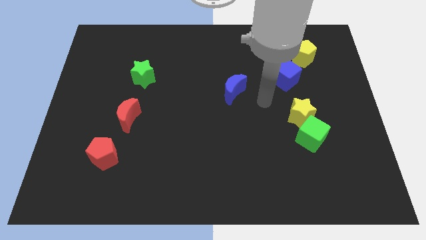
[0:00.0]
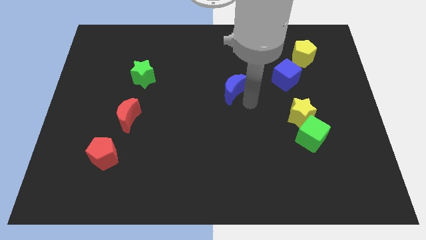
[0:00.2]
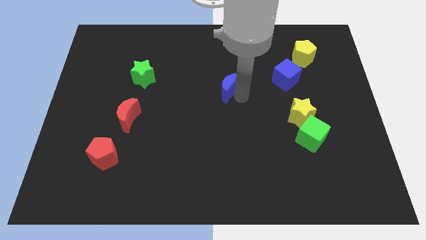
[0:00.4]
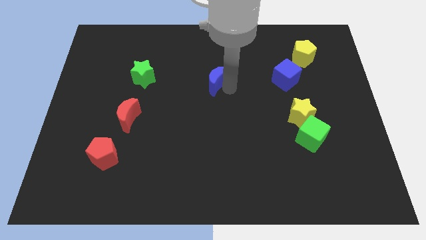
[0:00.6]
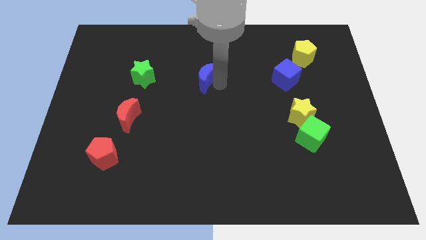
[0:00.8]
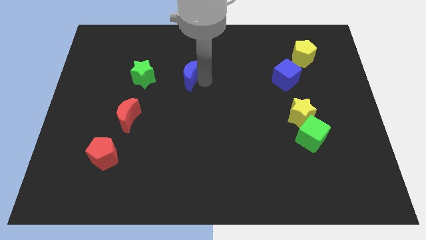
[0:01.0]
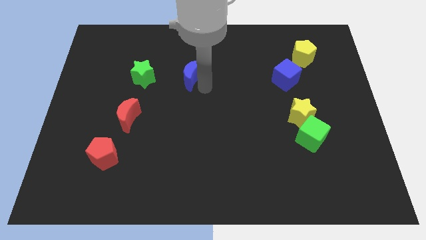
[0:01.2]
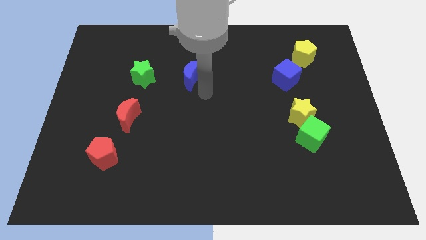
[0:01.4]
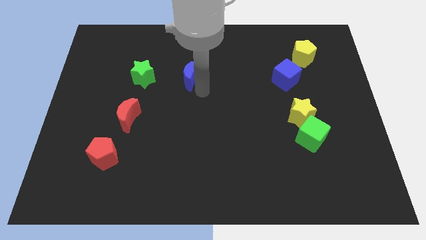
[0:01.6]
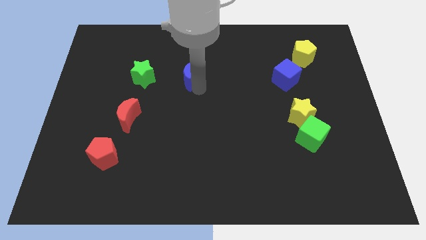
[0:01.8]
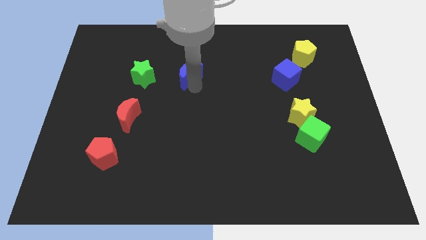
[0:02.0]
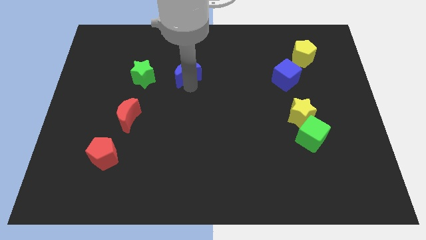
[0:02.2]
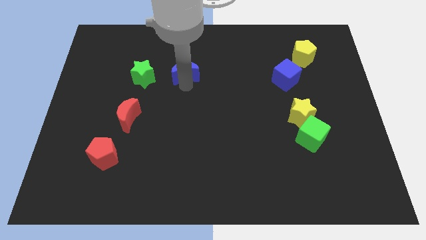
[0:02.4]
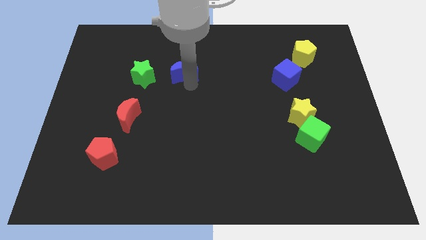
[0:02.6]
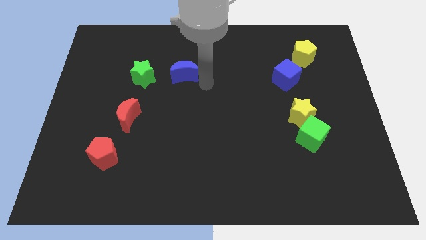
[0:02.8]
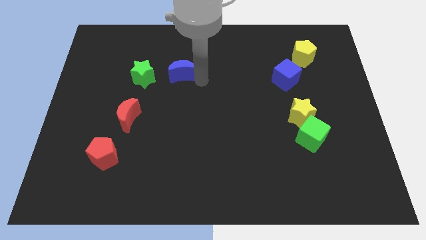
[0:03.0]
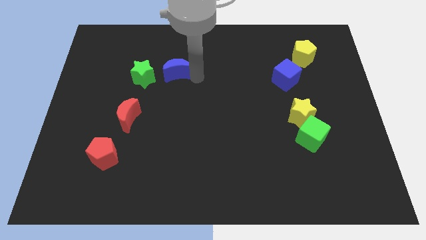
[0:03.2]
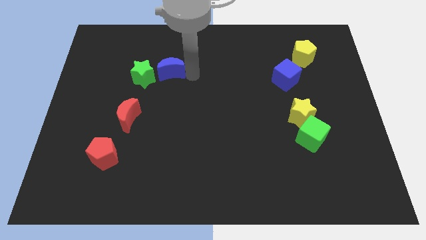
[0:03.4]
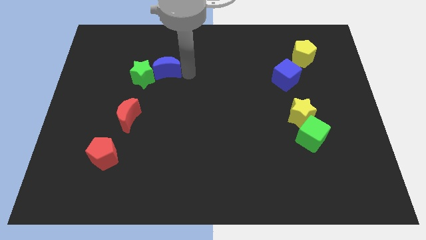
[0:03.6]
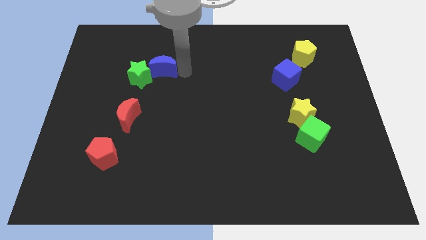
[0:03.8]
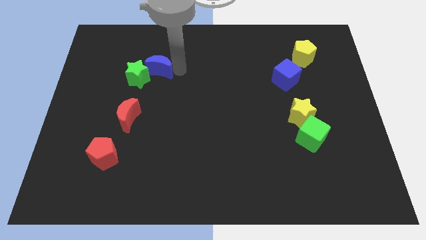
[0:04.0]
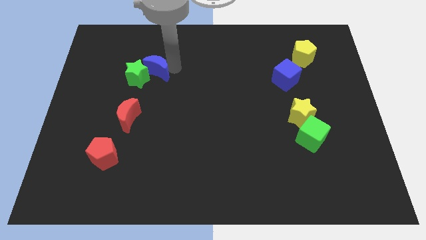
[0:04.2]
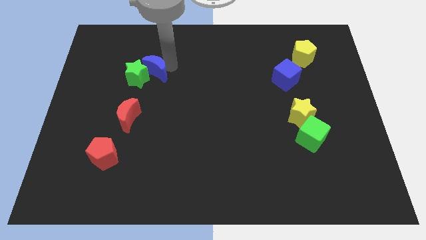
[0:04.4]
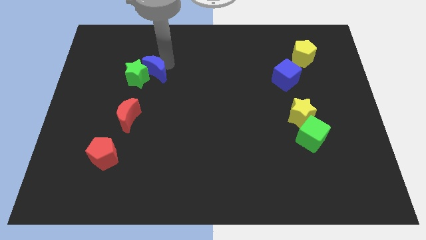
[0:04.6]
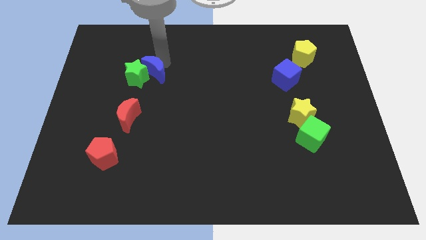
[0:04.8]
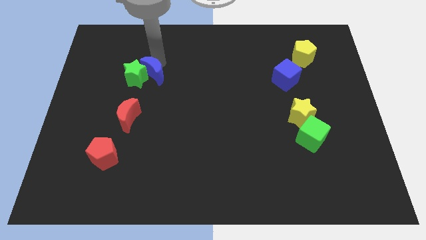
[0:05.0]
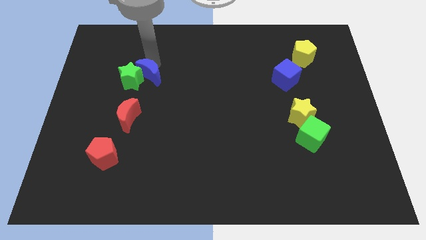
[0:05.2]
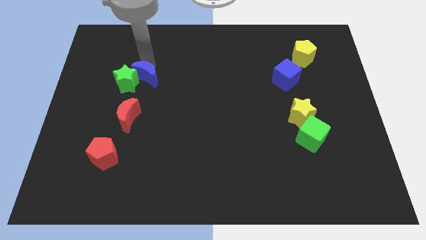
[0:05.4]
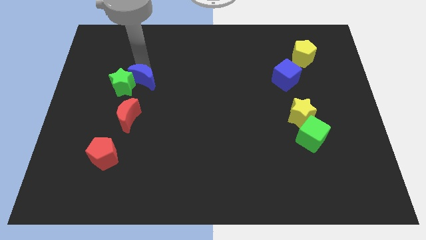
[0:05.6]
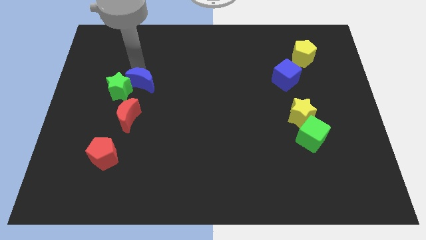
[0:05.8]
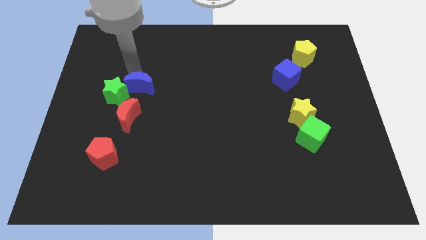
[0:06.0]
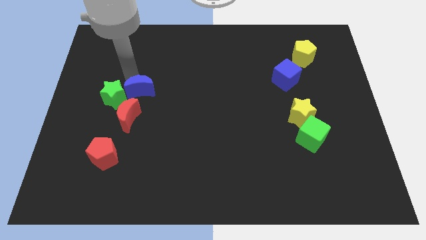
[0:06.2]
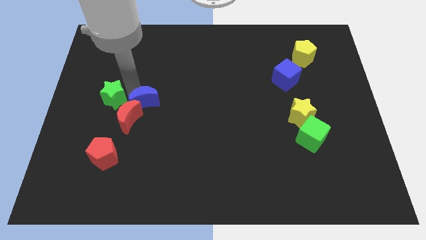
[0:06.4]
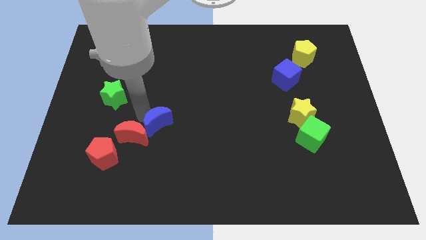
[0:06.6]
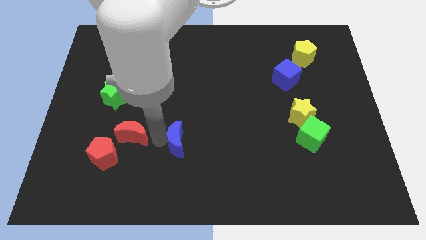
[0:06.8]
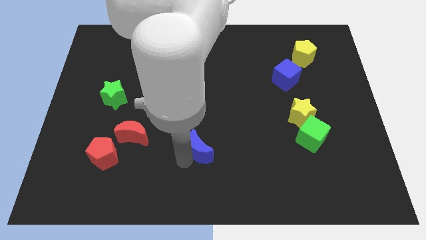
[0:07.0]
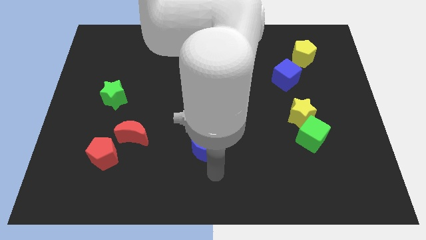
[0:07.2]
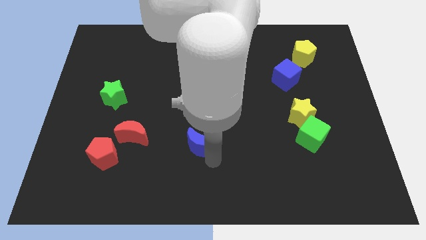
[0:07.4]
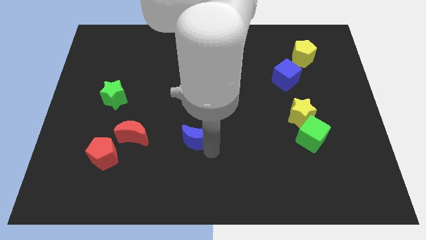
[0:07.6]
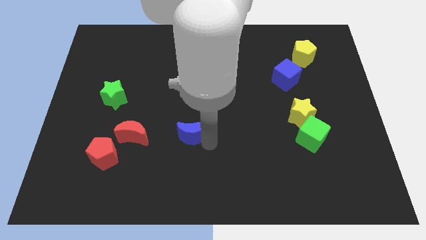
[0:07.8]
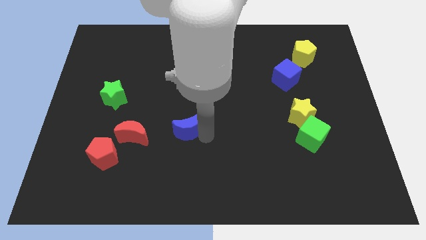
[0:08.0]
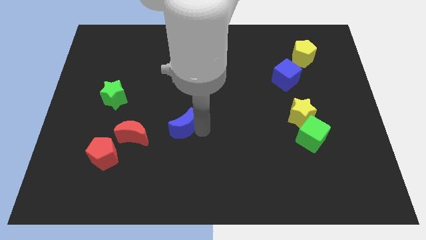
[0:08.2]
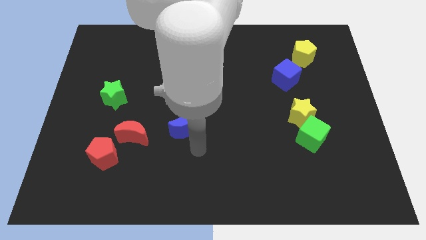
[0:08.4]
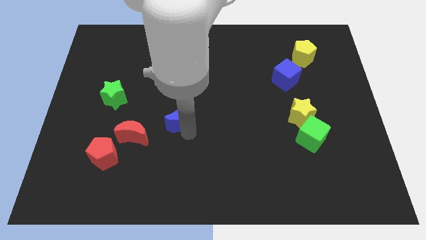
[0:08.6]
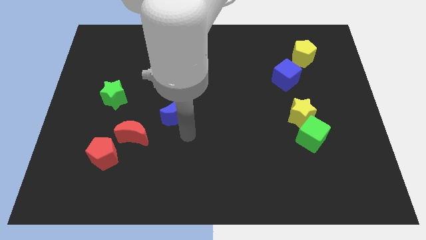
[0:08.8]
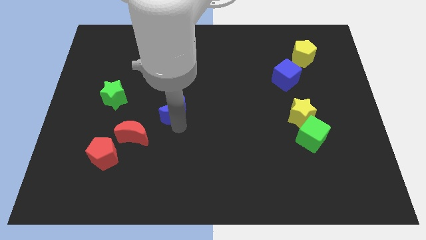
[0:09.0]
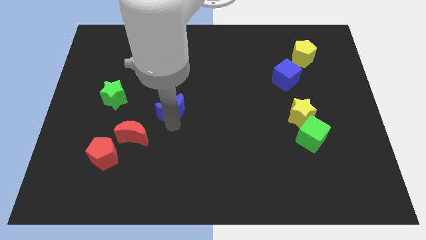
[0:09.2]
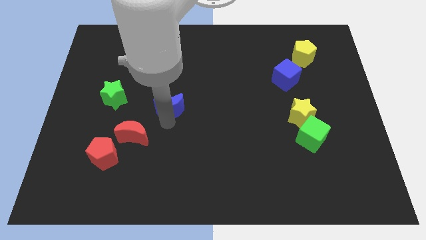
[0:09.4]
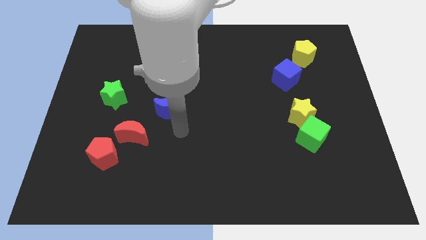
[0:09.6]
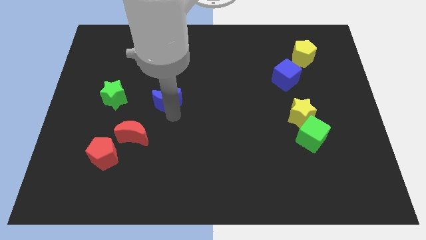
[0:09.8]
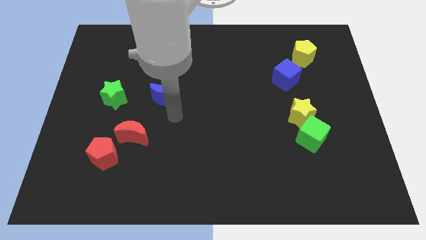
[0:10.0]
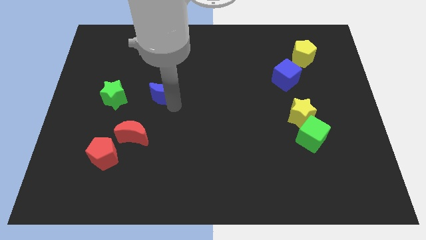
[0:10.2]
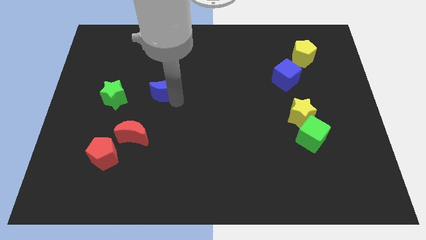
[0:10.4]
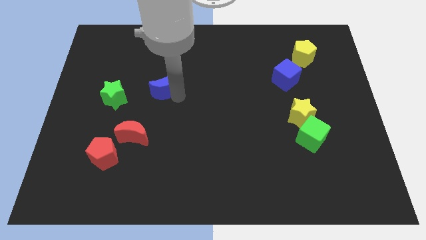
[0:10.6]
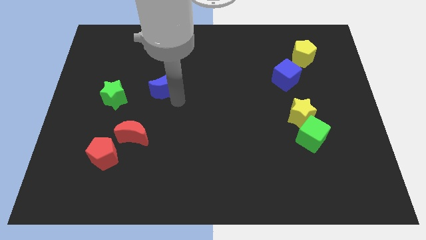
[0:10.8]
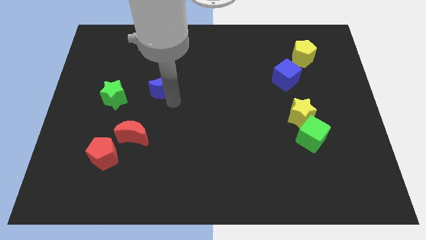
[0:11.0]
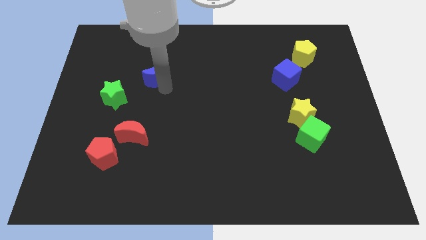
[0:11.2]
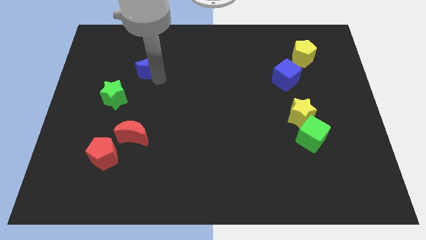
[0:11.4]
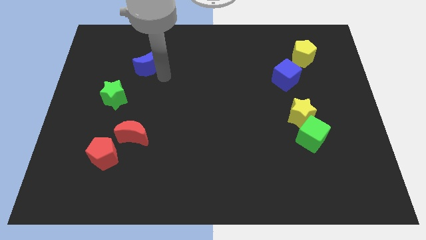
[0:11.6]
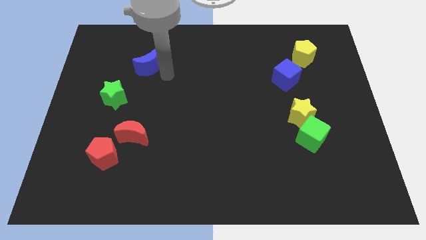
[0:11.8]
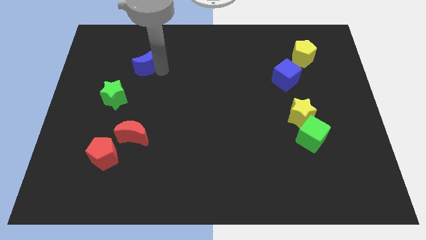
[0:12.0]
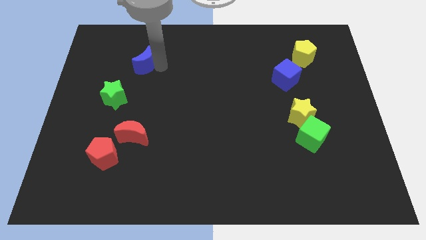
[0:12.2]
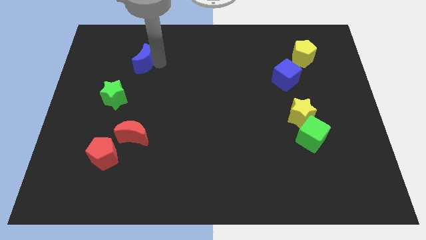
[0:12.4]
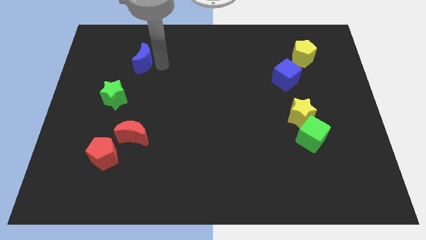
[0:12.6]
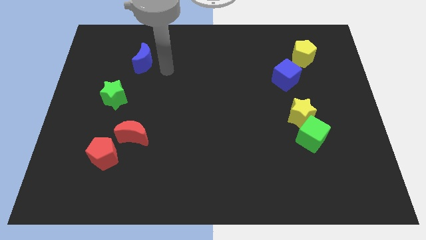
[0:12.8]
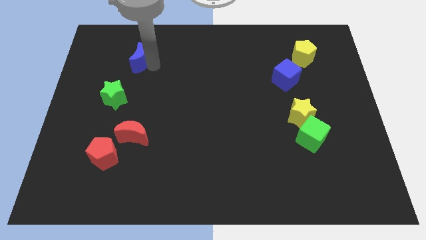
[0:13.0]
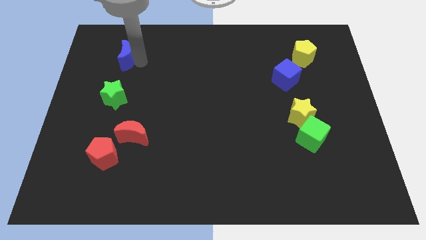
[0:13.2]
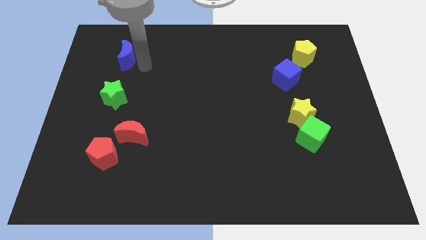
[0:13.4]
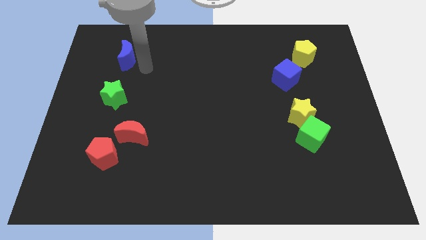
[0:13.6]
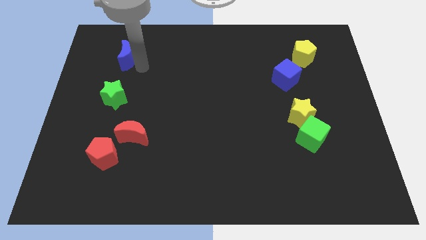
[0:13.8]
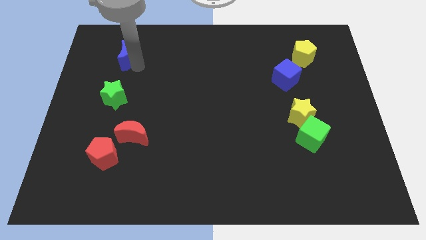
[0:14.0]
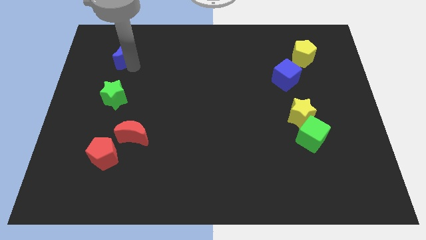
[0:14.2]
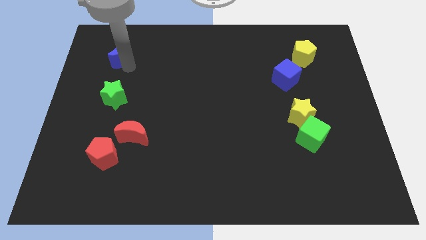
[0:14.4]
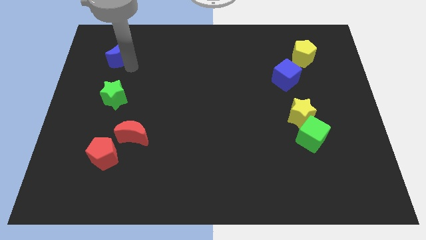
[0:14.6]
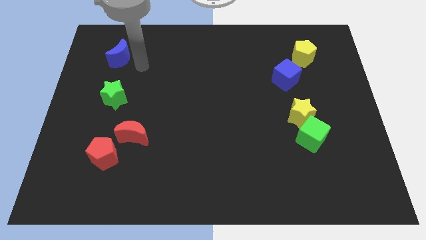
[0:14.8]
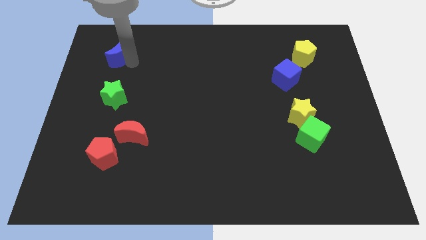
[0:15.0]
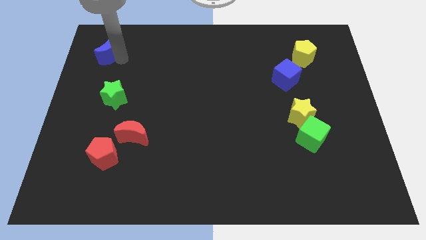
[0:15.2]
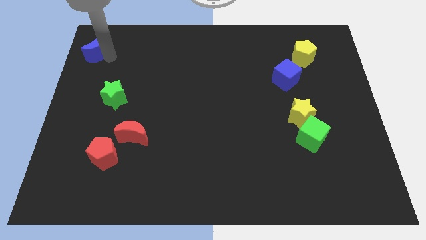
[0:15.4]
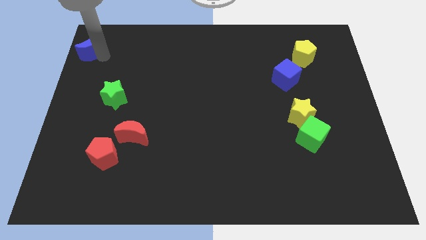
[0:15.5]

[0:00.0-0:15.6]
move the blue moon to the top left corner
